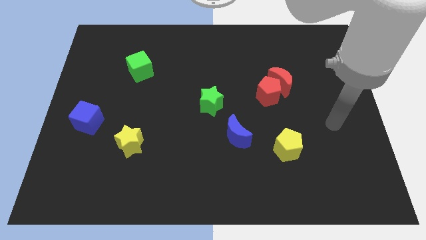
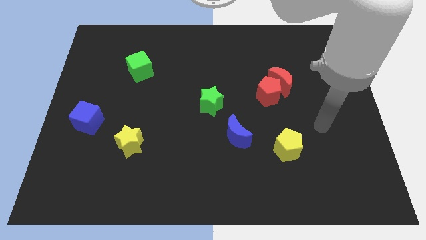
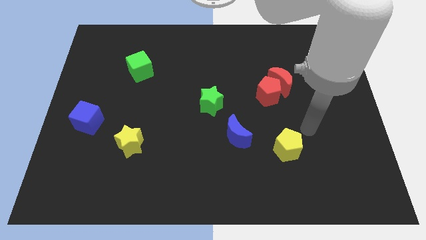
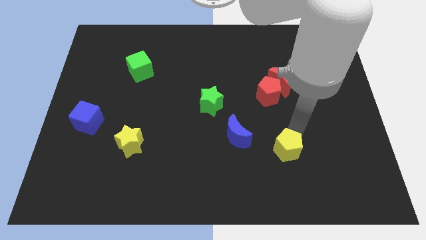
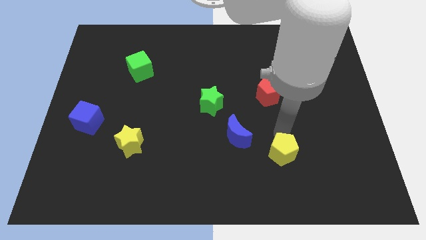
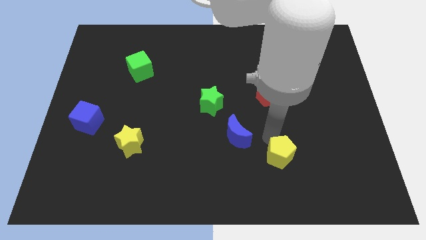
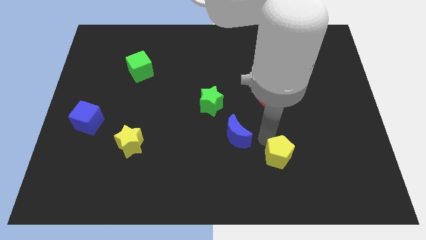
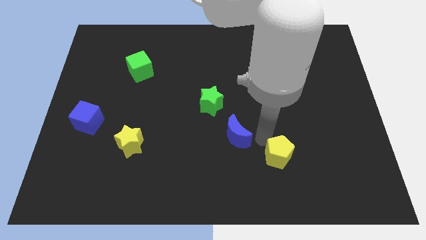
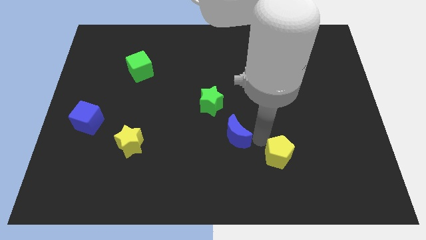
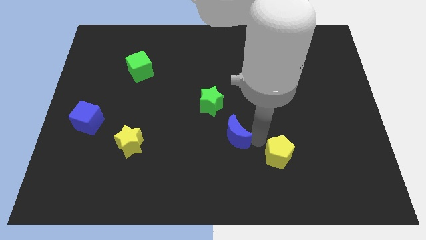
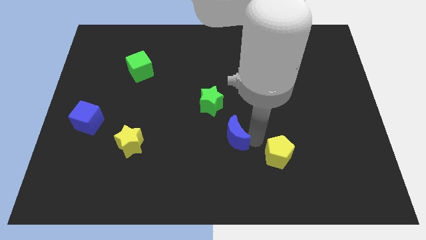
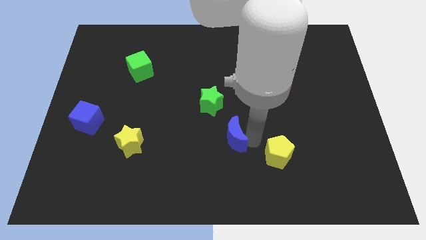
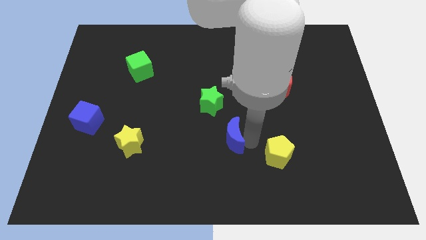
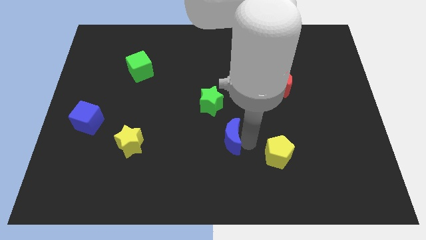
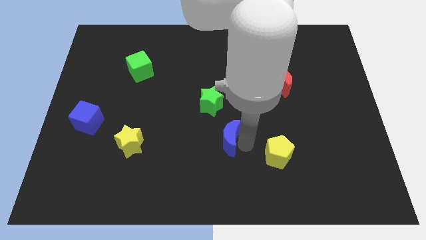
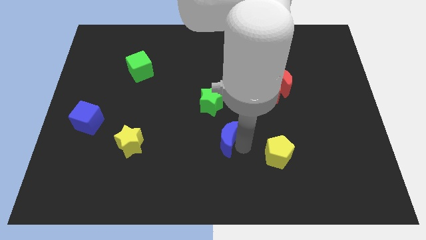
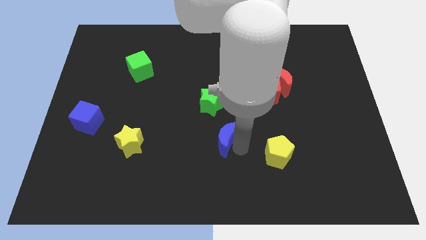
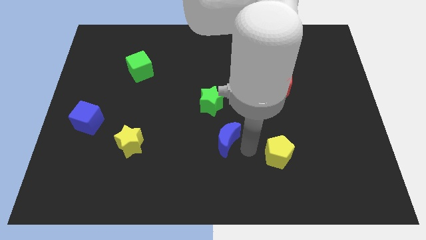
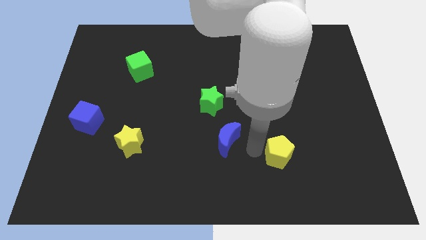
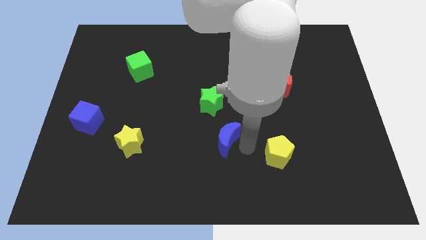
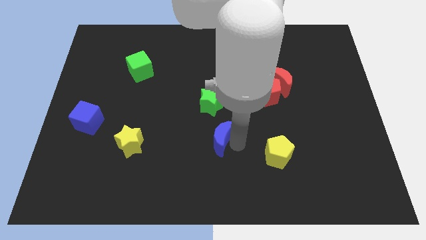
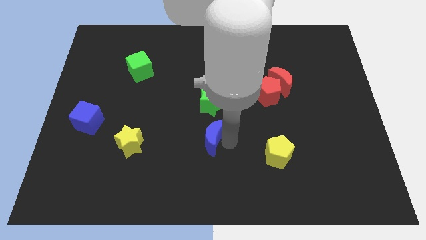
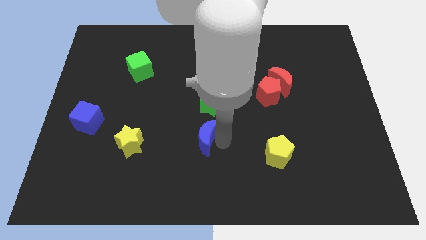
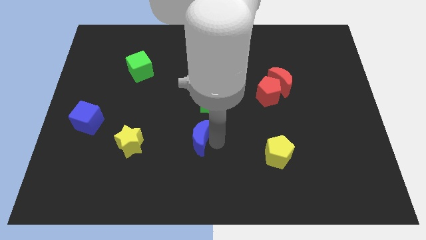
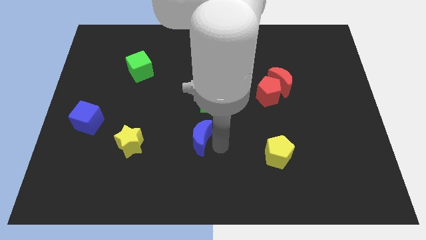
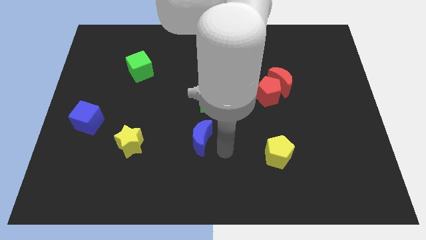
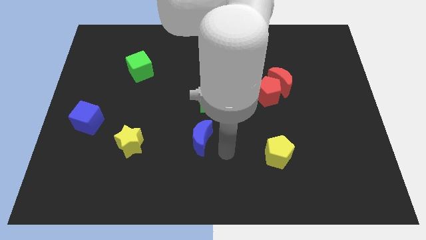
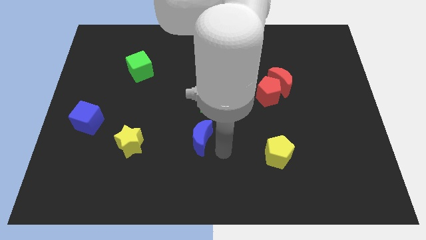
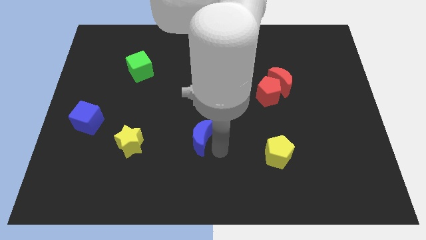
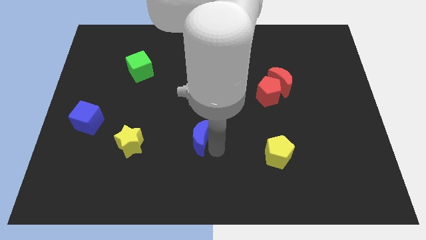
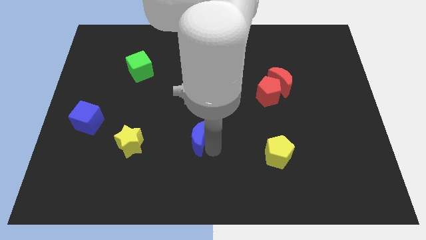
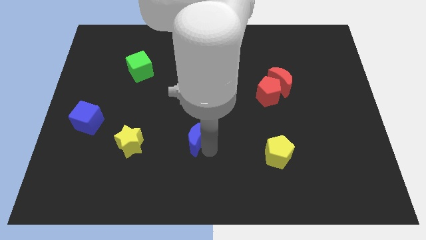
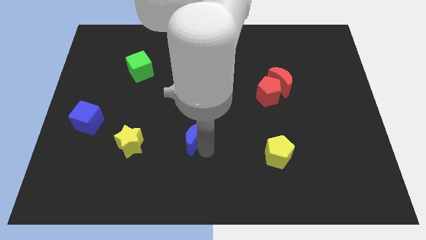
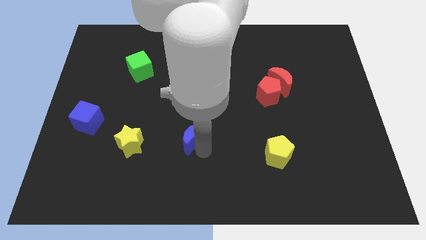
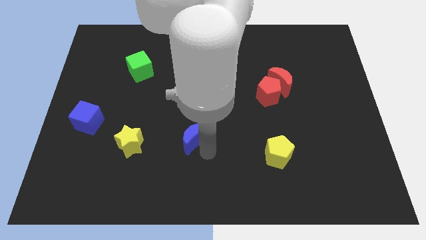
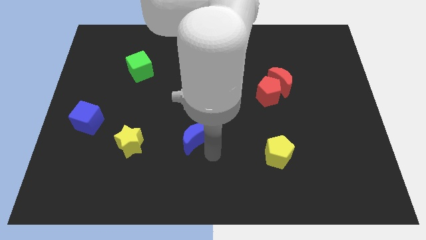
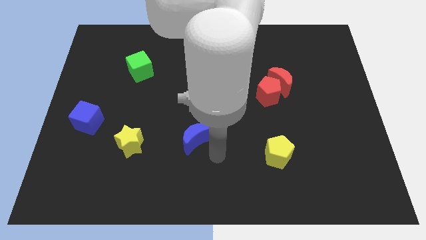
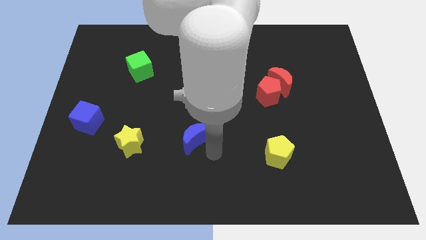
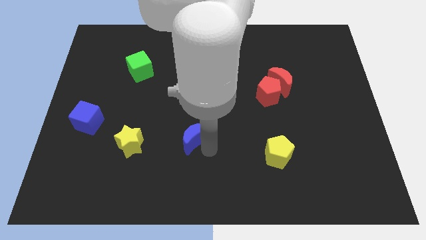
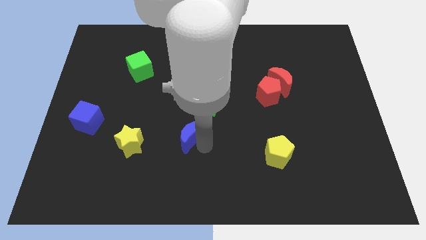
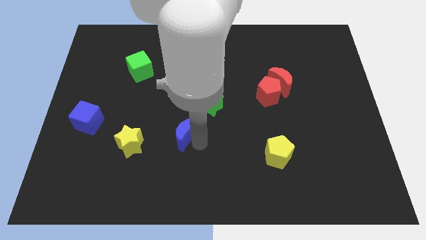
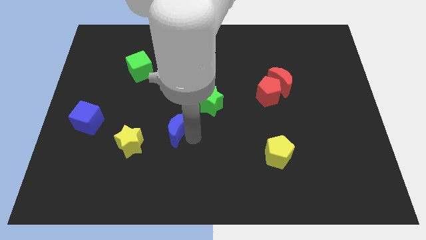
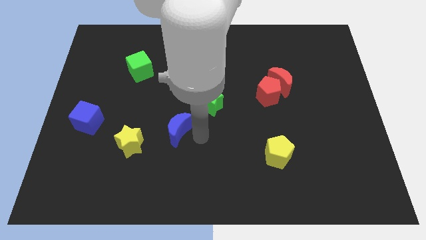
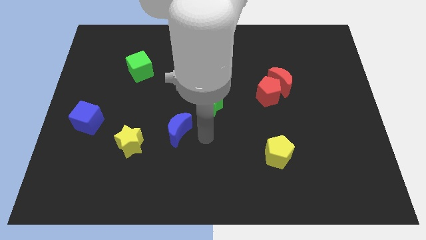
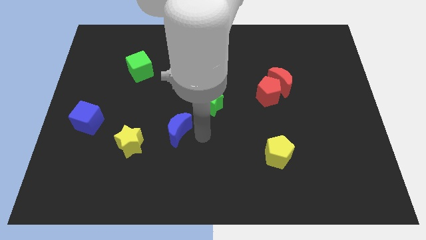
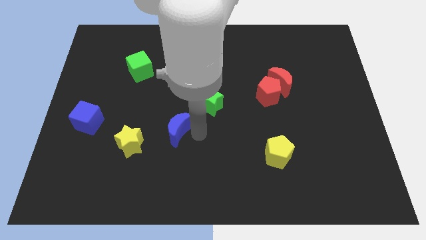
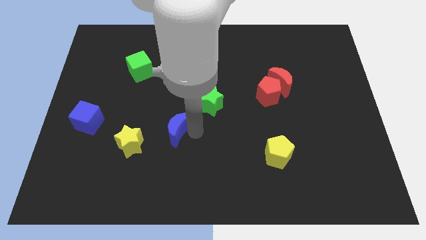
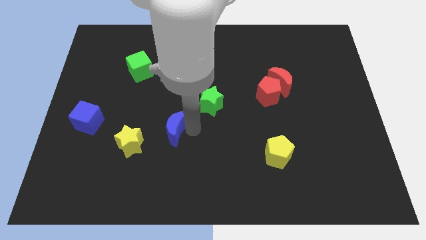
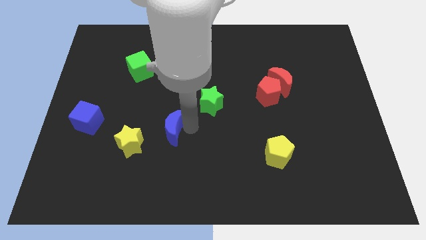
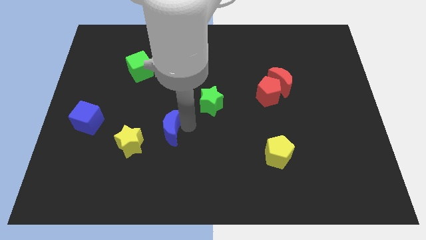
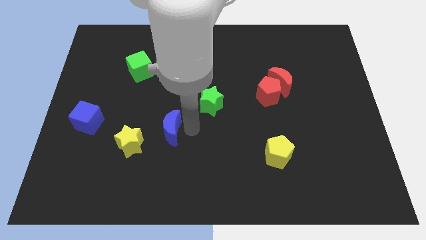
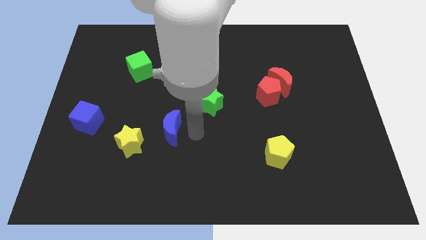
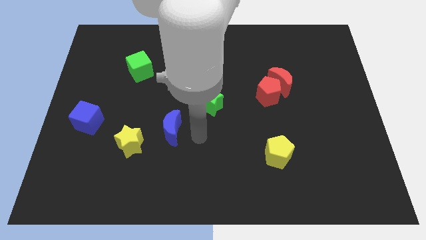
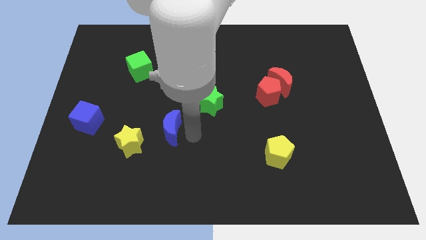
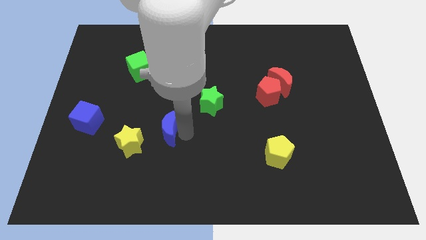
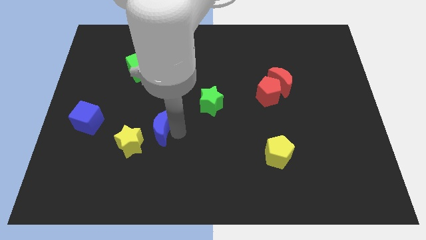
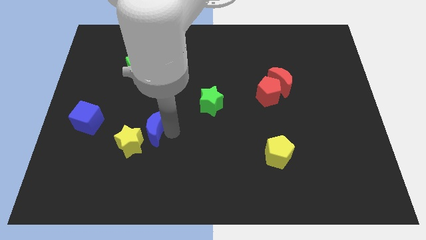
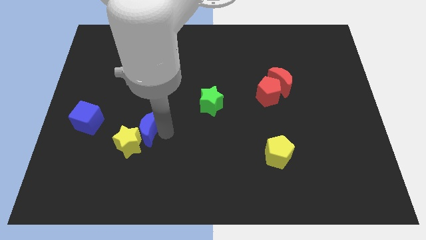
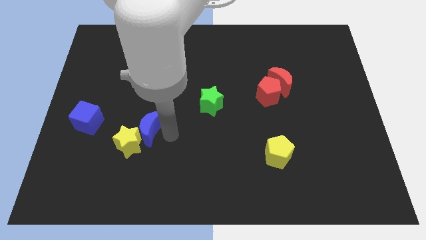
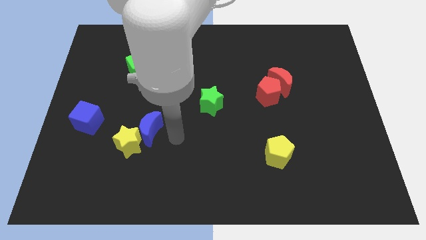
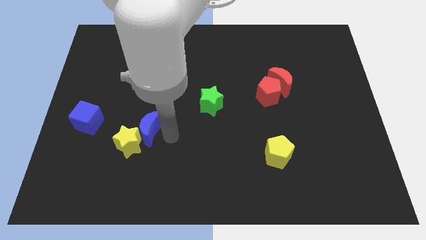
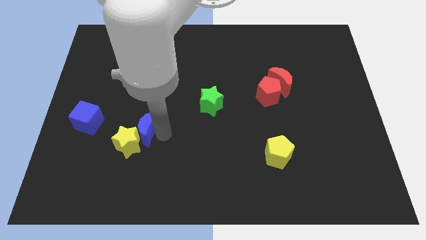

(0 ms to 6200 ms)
push the blue moon to the left

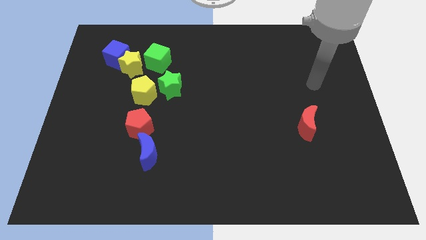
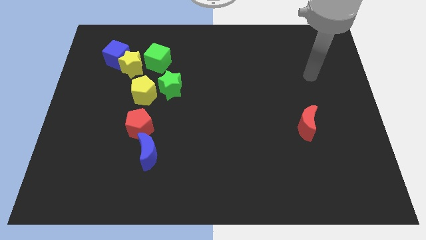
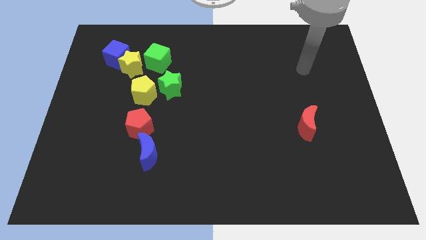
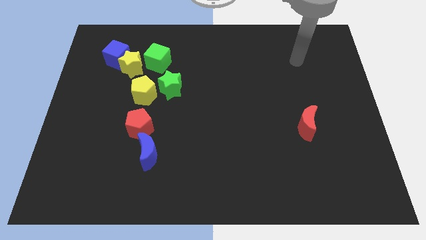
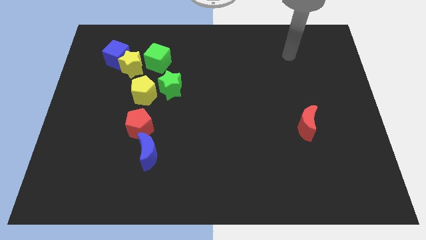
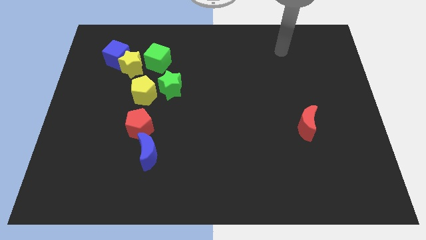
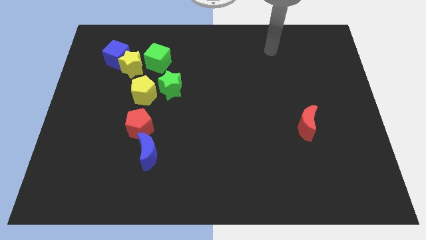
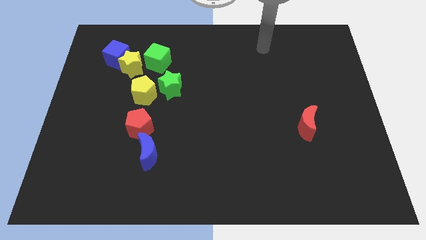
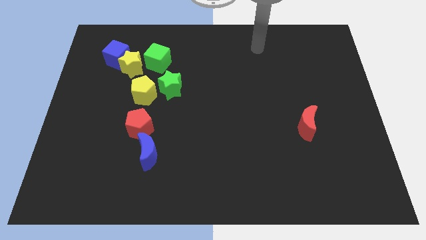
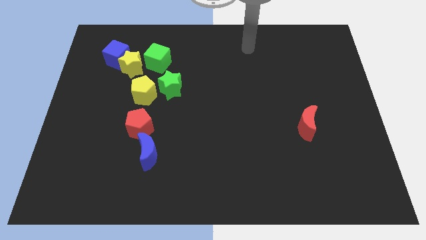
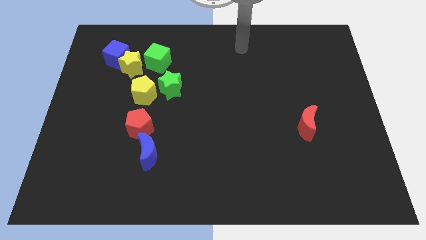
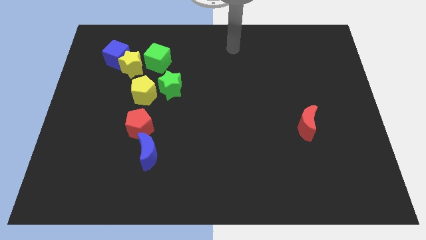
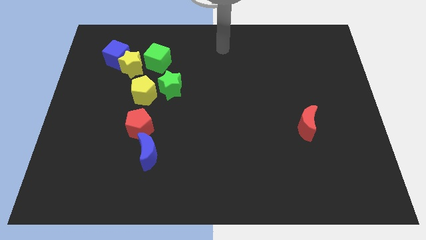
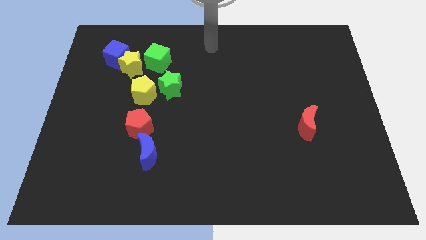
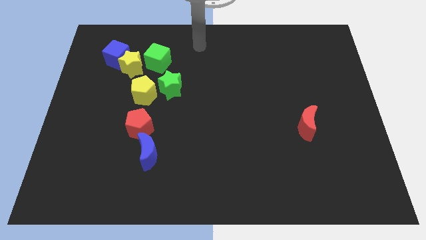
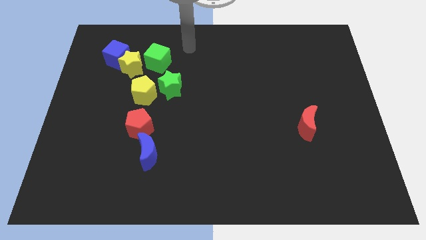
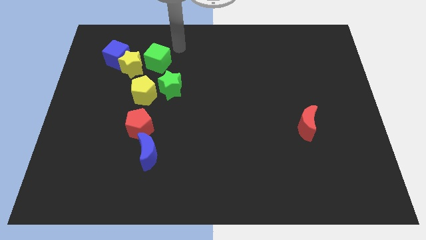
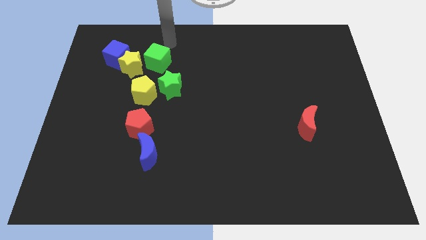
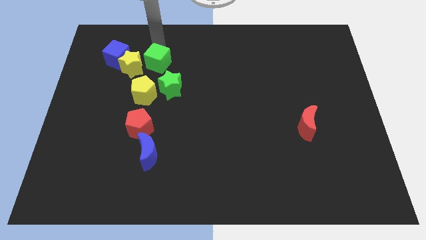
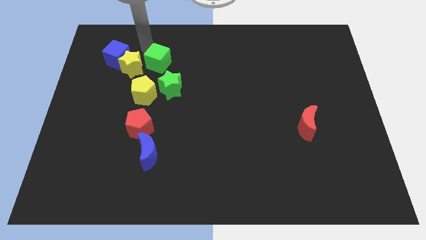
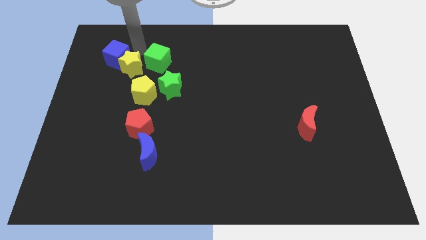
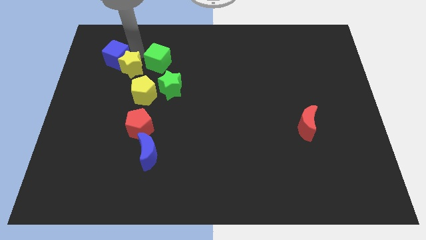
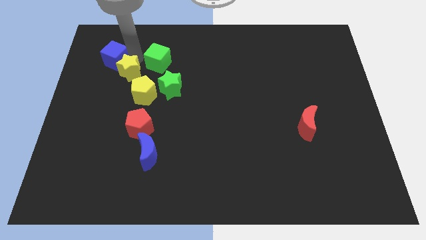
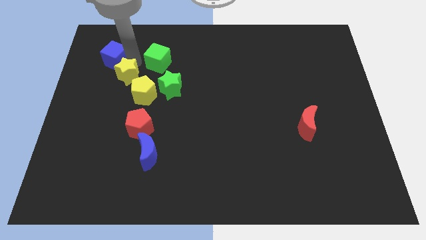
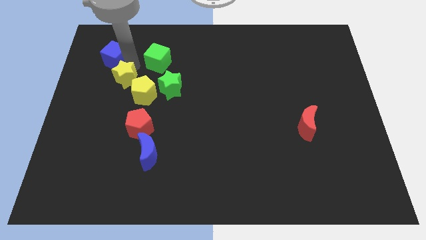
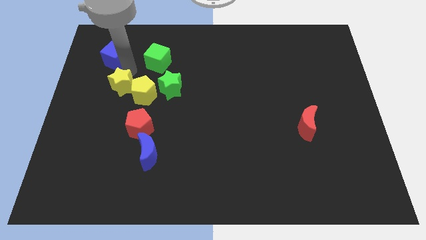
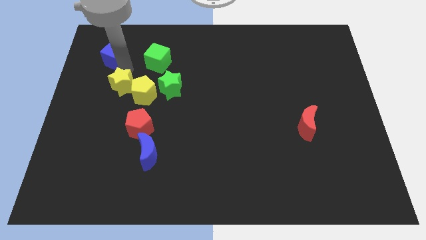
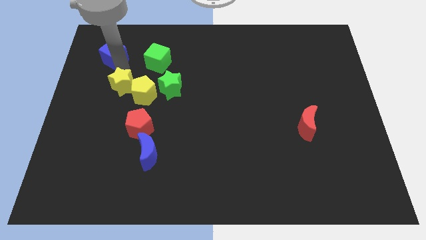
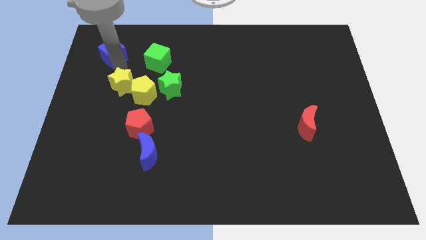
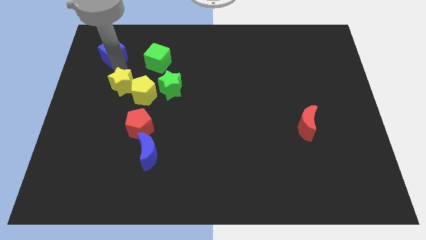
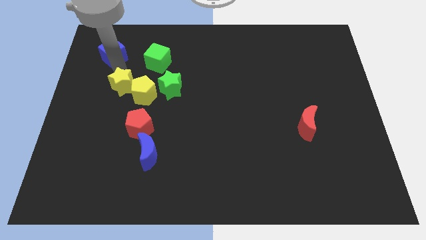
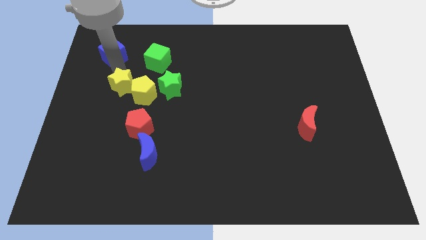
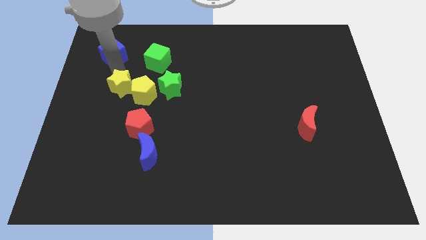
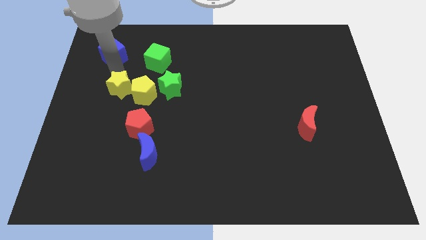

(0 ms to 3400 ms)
move the yellow star down a little bit
